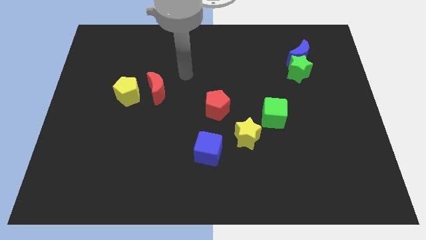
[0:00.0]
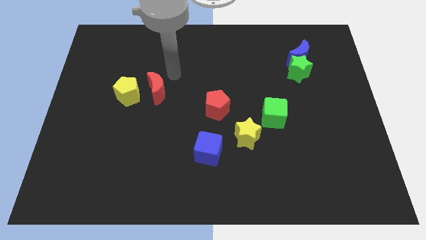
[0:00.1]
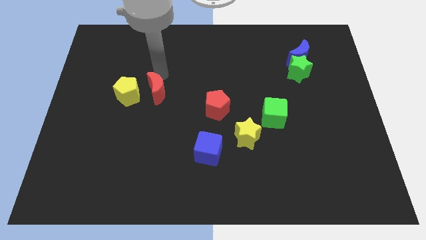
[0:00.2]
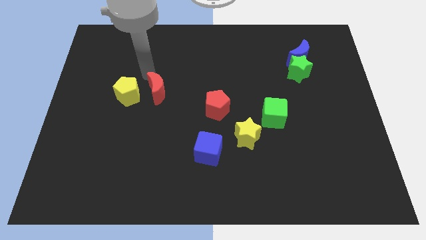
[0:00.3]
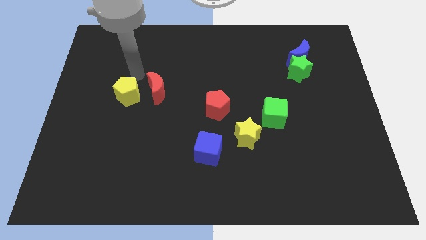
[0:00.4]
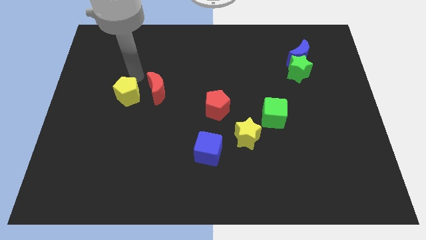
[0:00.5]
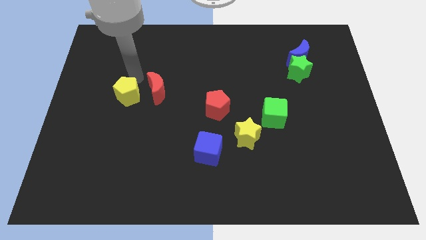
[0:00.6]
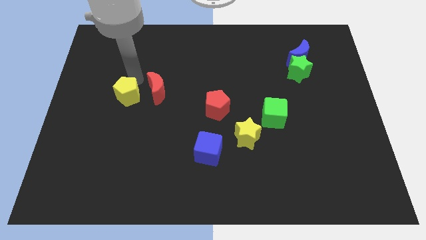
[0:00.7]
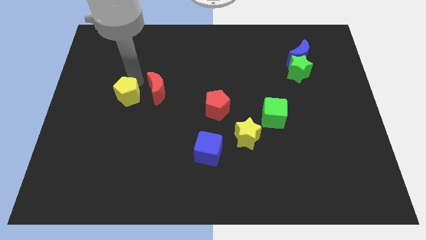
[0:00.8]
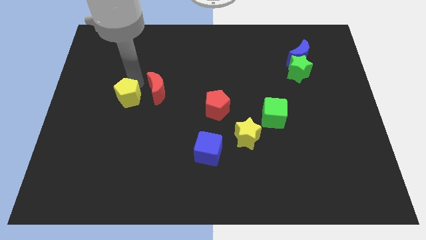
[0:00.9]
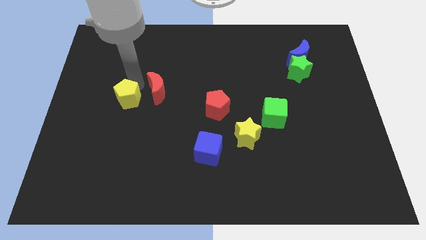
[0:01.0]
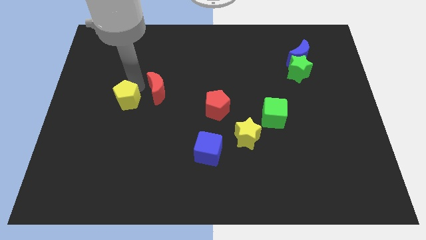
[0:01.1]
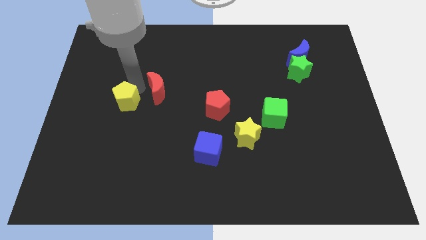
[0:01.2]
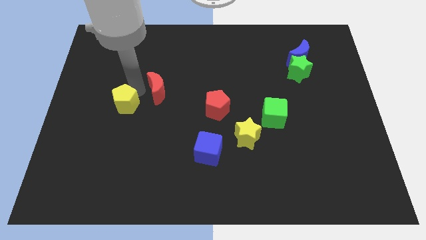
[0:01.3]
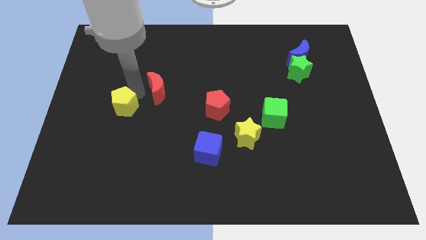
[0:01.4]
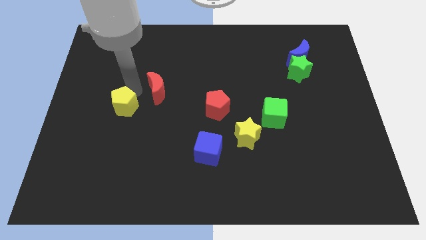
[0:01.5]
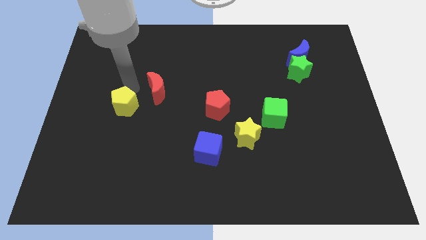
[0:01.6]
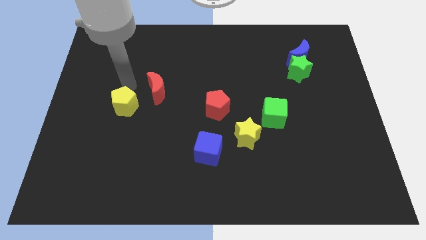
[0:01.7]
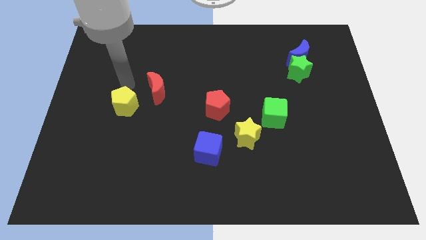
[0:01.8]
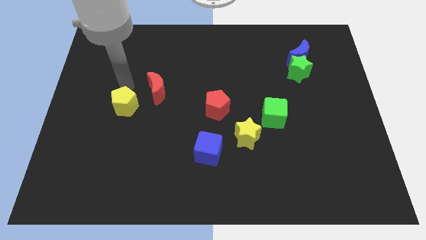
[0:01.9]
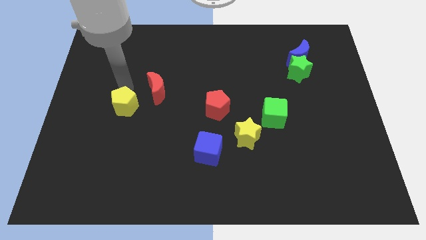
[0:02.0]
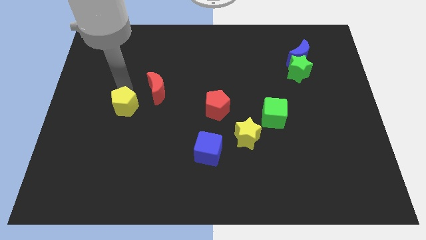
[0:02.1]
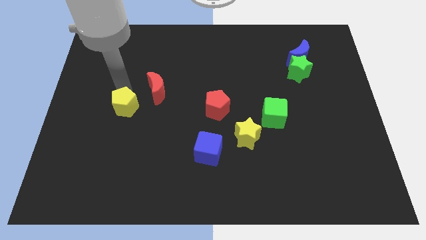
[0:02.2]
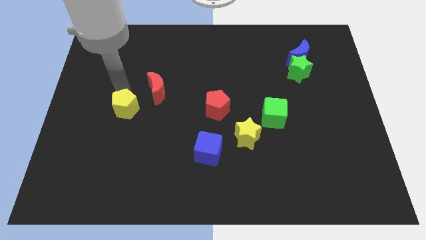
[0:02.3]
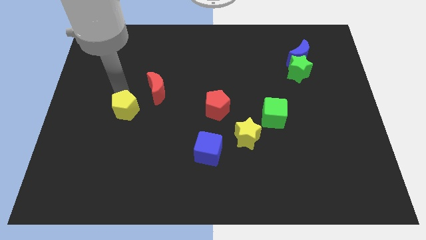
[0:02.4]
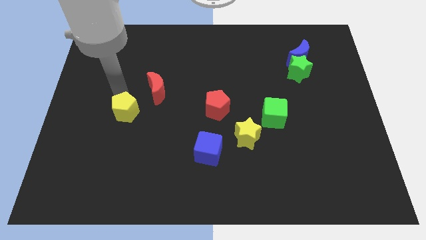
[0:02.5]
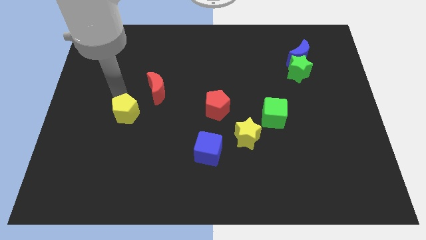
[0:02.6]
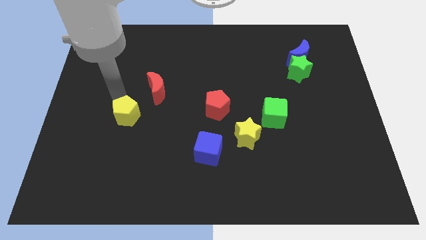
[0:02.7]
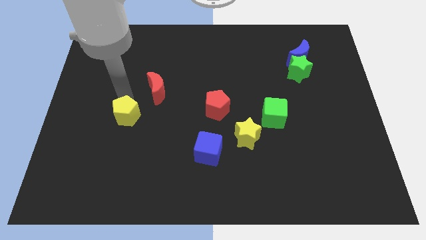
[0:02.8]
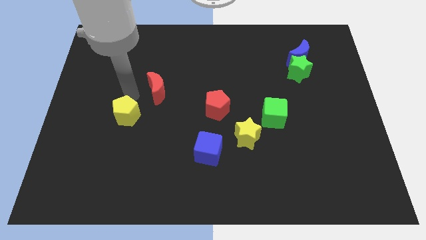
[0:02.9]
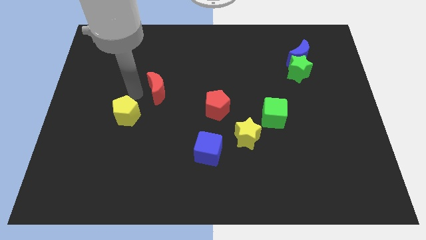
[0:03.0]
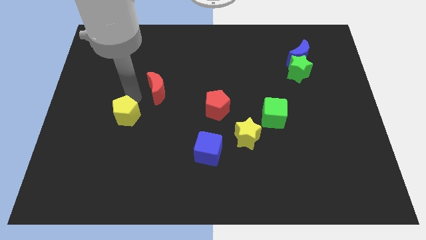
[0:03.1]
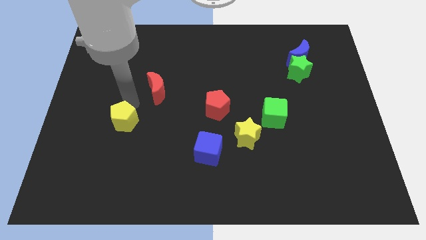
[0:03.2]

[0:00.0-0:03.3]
slightly slide the yellow pentagon down

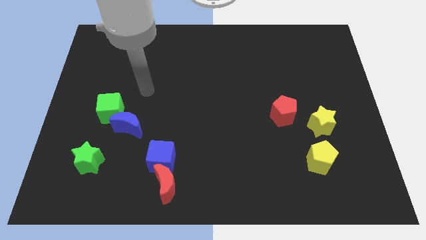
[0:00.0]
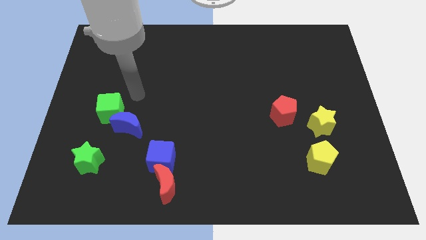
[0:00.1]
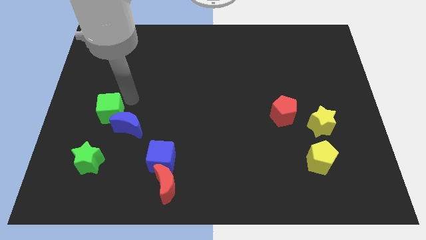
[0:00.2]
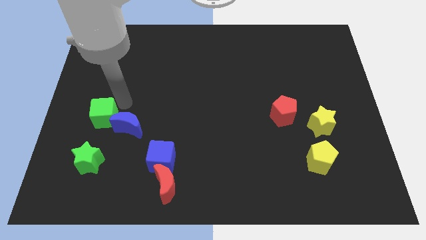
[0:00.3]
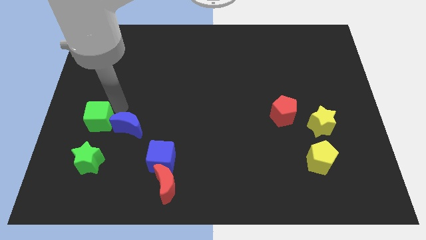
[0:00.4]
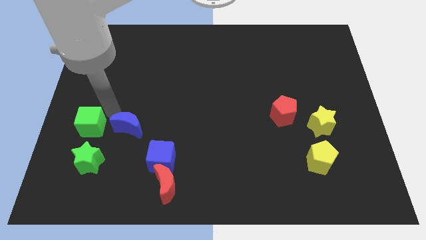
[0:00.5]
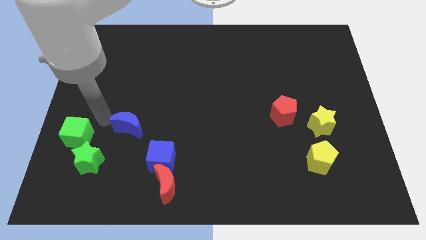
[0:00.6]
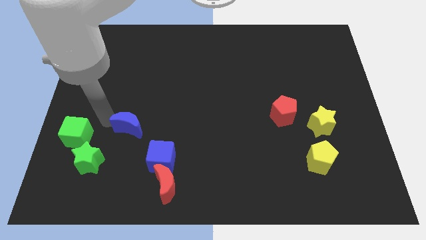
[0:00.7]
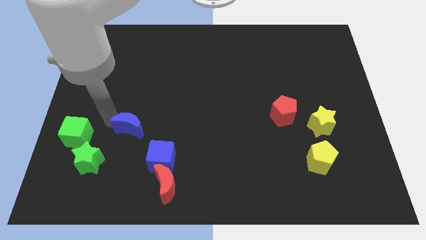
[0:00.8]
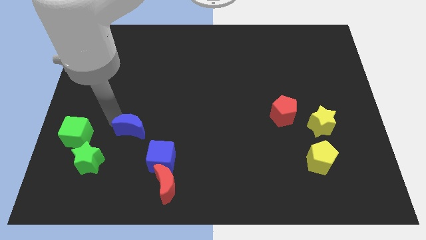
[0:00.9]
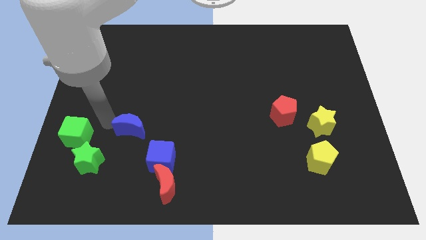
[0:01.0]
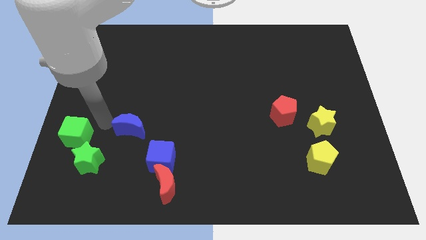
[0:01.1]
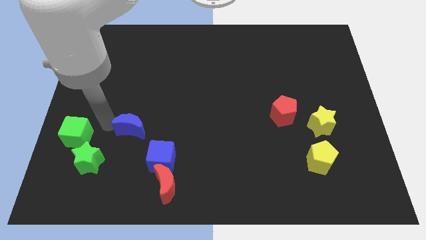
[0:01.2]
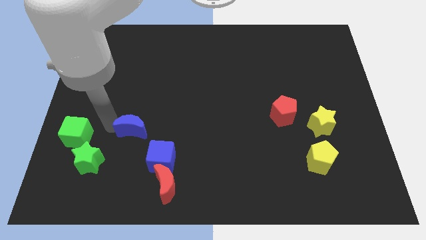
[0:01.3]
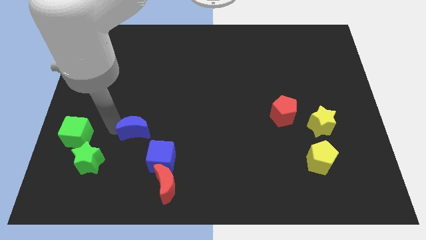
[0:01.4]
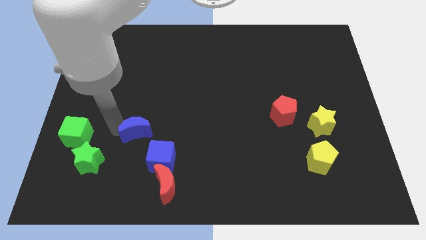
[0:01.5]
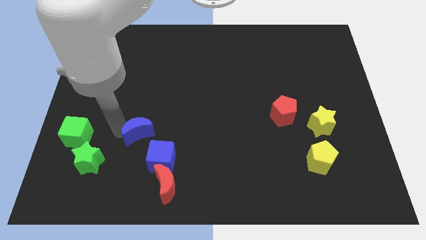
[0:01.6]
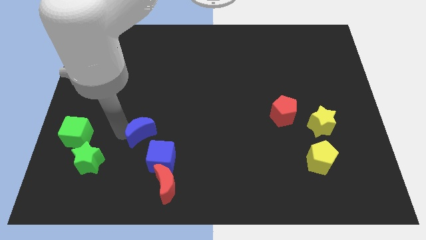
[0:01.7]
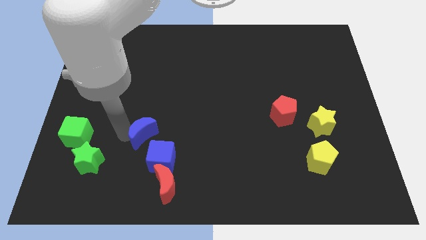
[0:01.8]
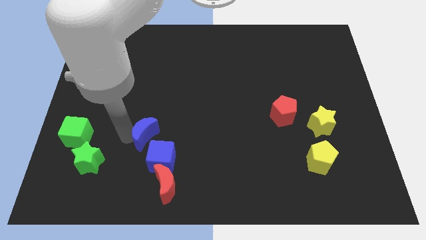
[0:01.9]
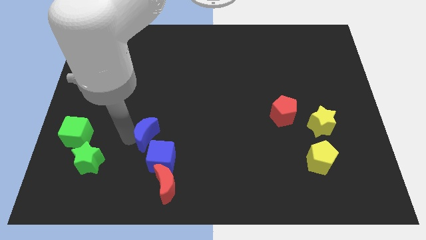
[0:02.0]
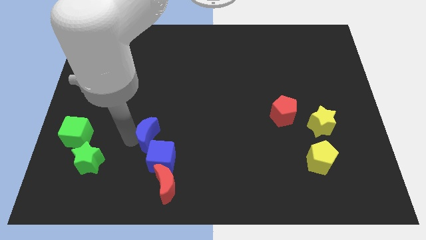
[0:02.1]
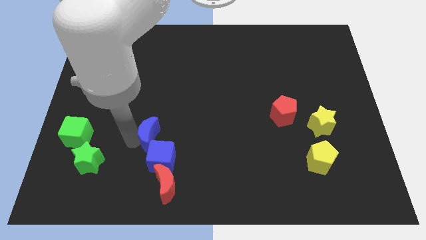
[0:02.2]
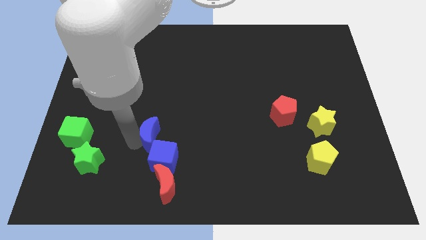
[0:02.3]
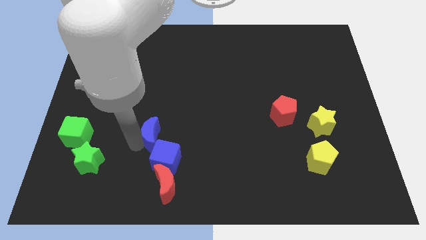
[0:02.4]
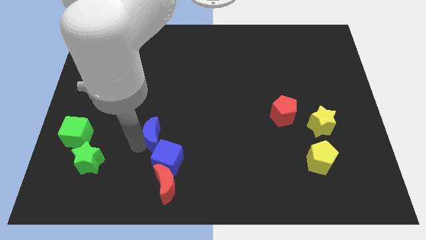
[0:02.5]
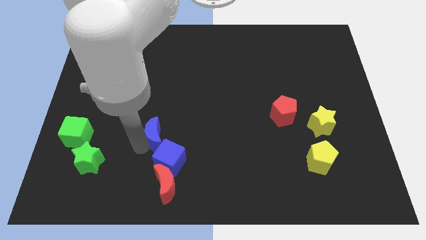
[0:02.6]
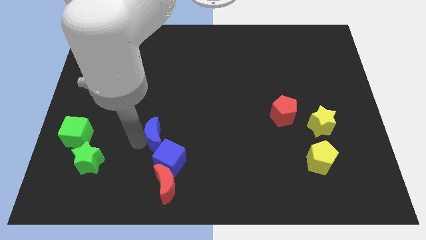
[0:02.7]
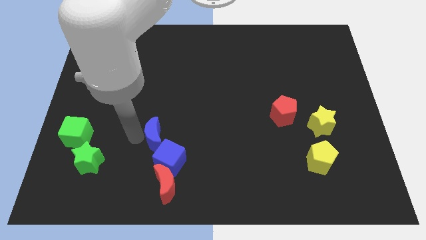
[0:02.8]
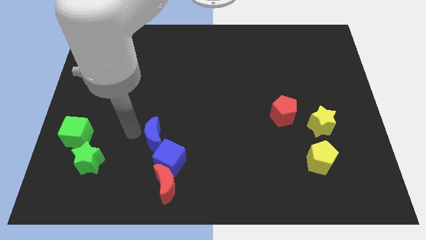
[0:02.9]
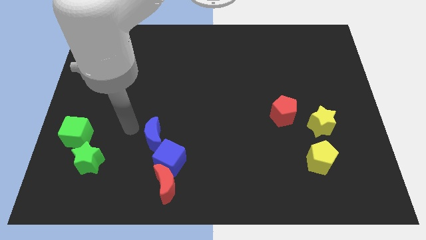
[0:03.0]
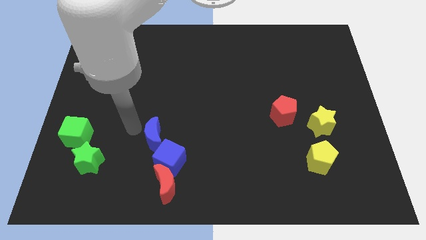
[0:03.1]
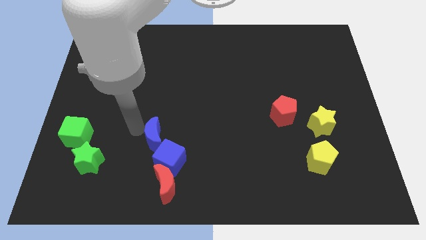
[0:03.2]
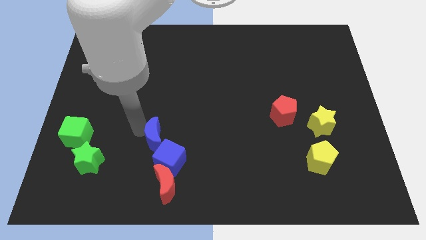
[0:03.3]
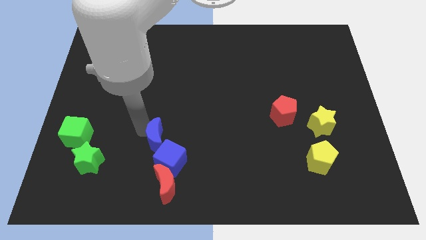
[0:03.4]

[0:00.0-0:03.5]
move the blue moon down and to the right diagonally a bit

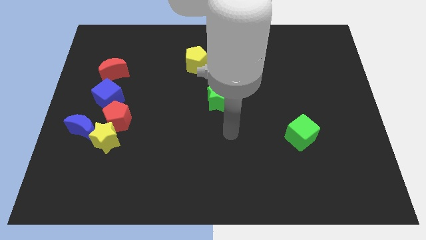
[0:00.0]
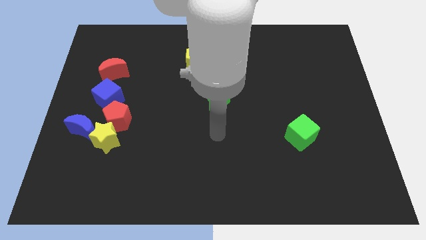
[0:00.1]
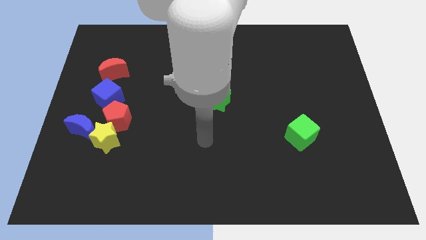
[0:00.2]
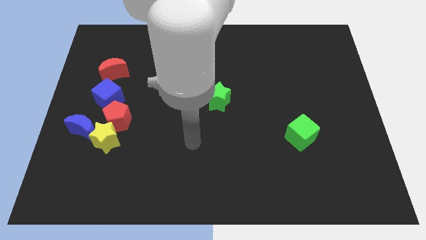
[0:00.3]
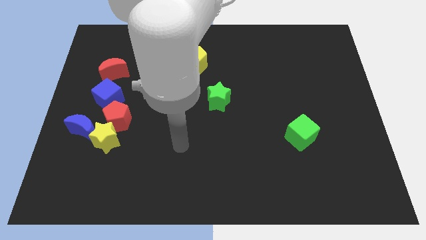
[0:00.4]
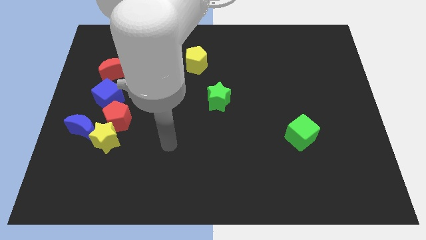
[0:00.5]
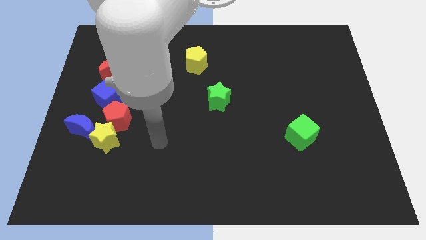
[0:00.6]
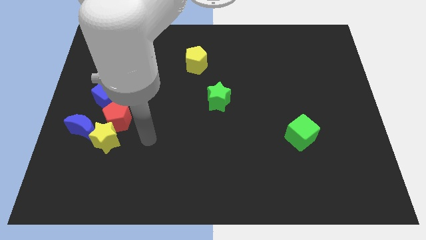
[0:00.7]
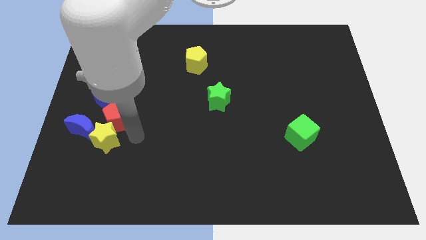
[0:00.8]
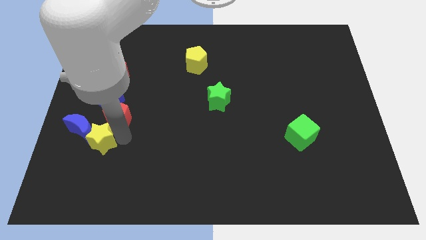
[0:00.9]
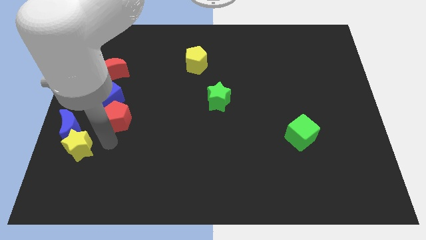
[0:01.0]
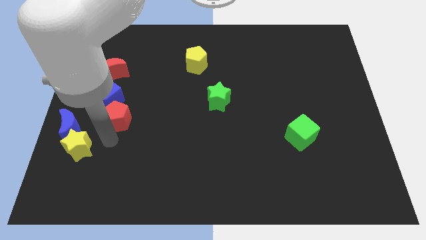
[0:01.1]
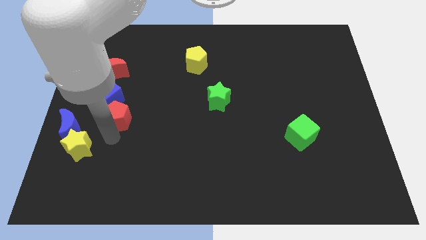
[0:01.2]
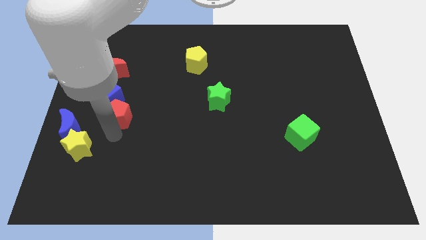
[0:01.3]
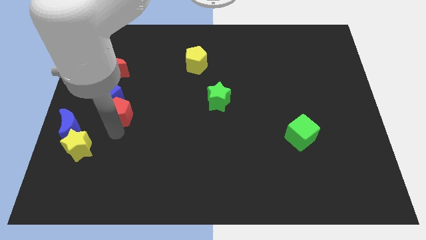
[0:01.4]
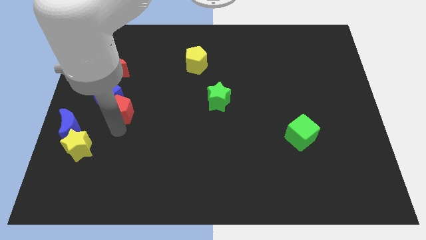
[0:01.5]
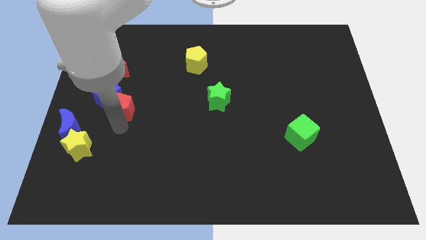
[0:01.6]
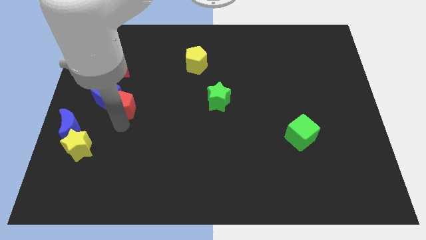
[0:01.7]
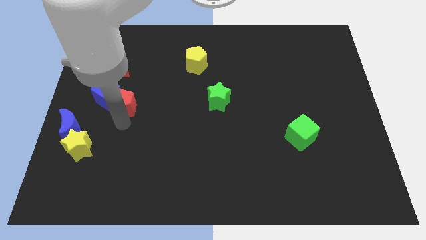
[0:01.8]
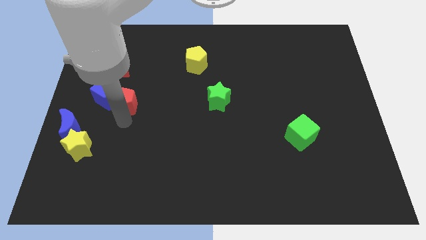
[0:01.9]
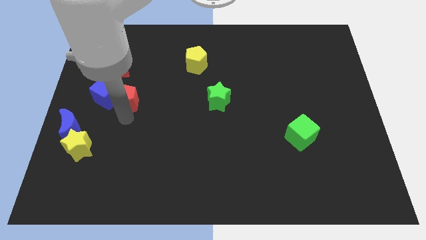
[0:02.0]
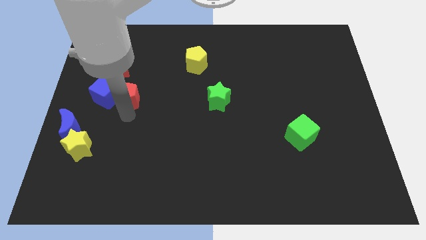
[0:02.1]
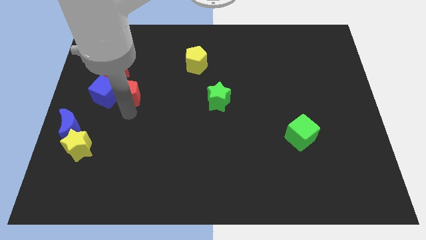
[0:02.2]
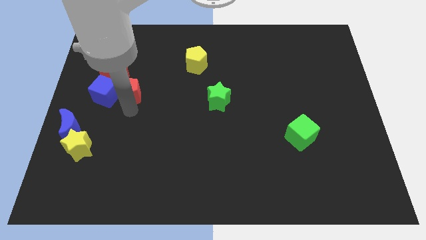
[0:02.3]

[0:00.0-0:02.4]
push the red pentagon a bit up
